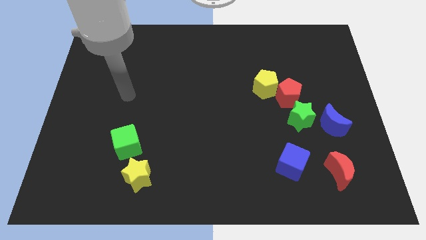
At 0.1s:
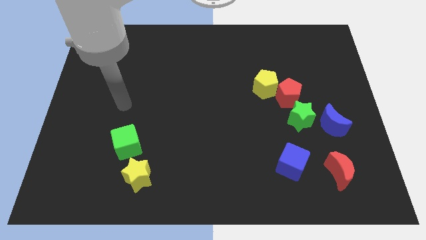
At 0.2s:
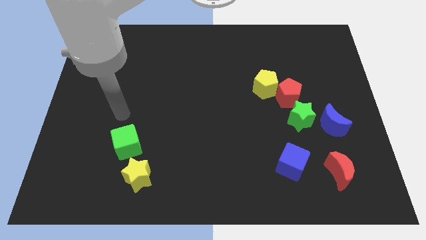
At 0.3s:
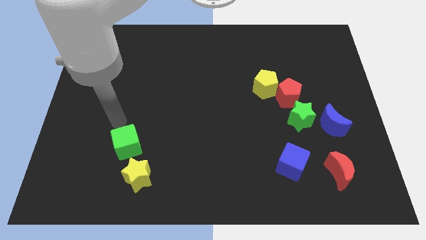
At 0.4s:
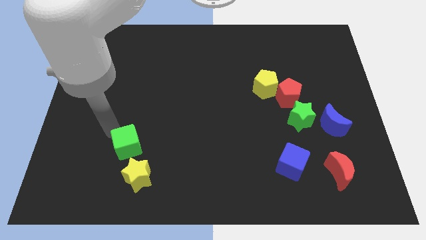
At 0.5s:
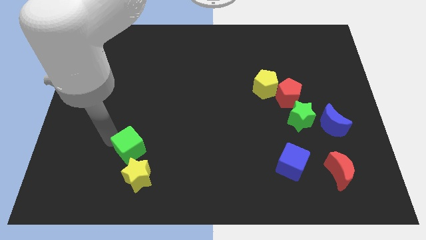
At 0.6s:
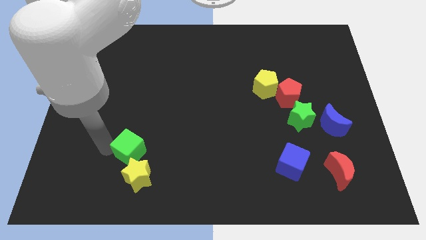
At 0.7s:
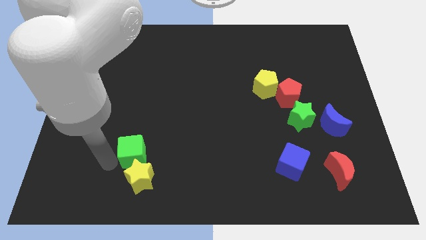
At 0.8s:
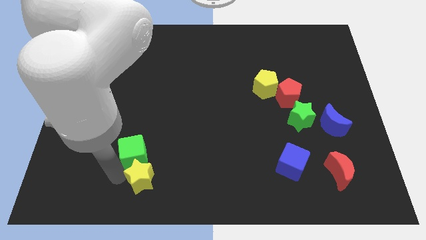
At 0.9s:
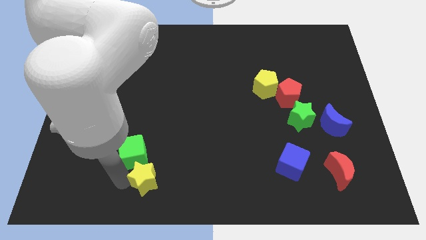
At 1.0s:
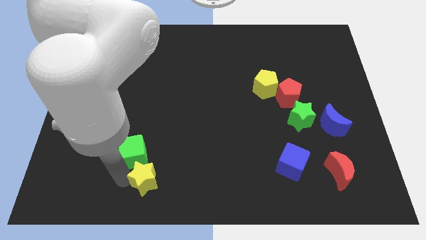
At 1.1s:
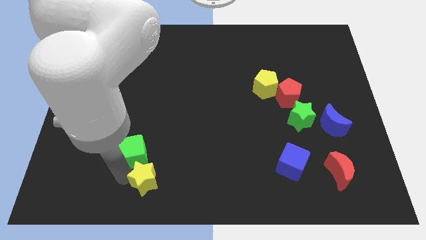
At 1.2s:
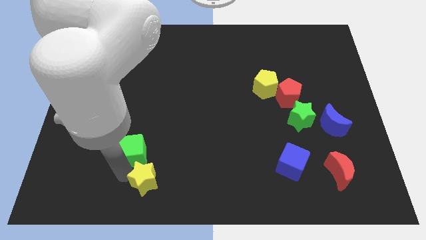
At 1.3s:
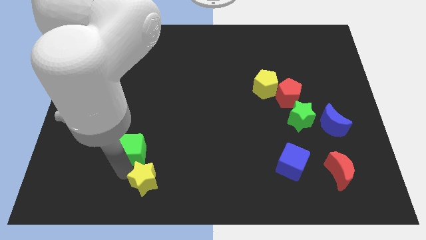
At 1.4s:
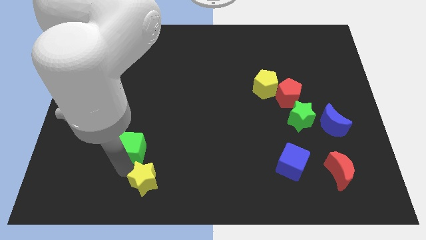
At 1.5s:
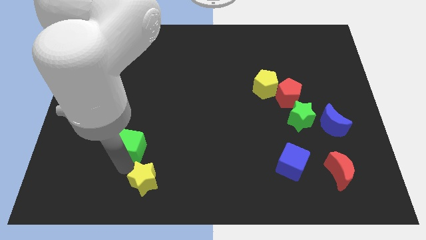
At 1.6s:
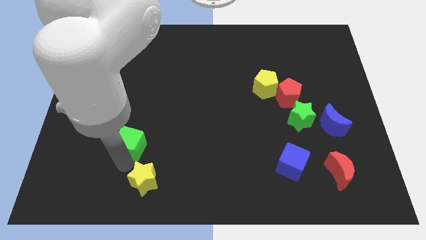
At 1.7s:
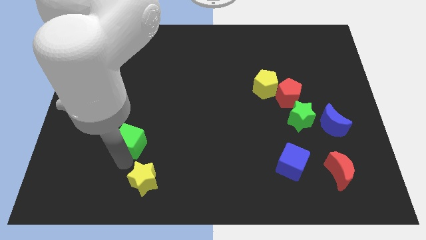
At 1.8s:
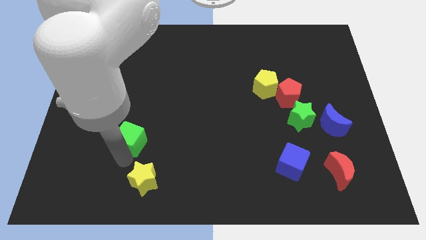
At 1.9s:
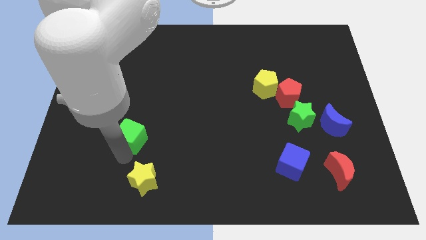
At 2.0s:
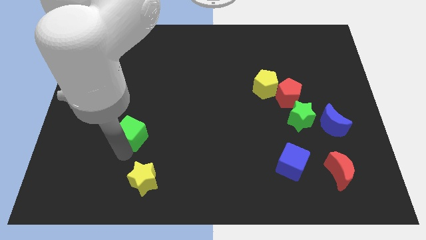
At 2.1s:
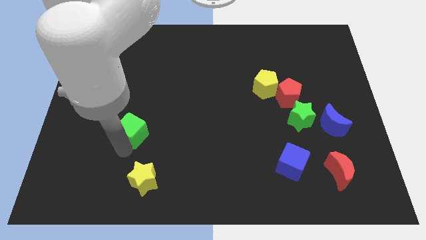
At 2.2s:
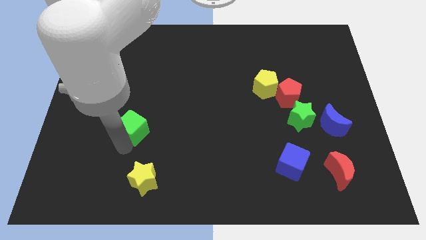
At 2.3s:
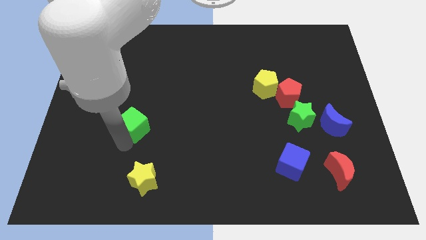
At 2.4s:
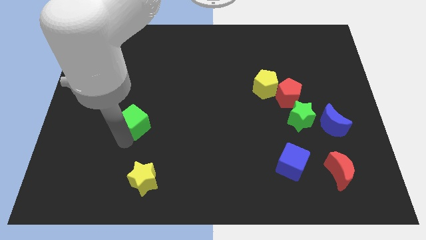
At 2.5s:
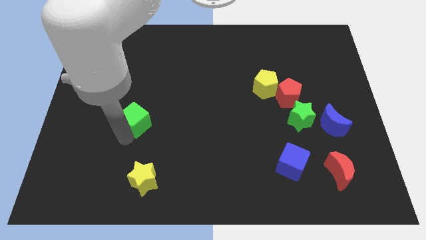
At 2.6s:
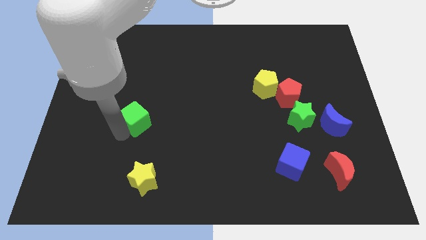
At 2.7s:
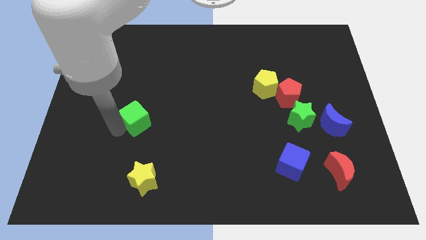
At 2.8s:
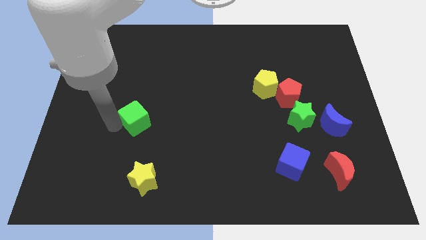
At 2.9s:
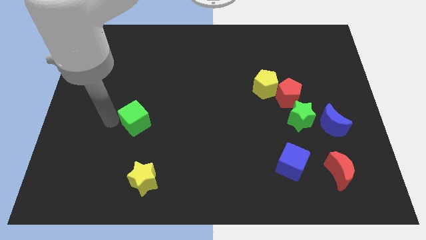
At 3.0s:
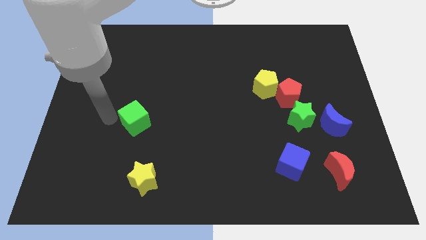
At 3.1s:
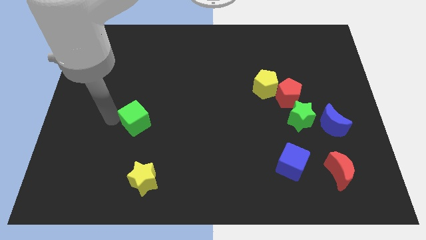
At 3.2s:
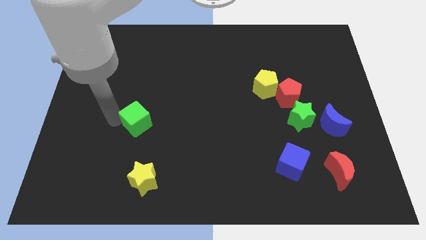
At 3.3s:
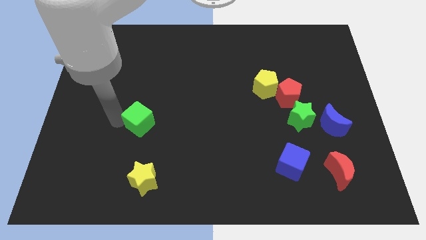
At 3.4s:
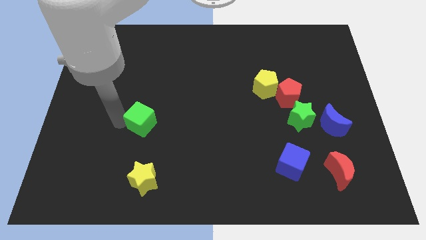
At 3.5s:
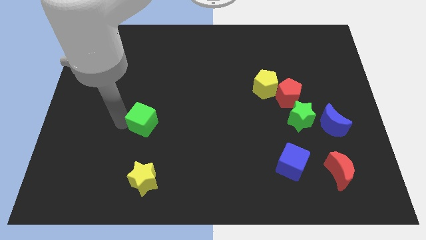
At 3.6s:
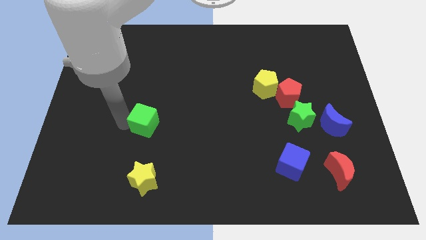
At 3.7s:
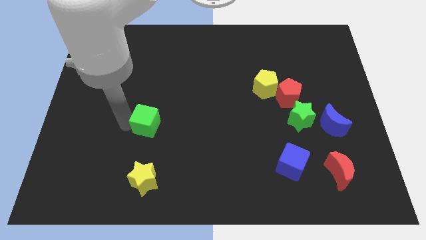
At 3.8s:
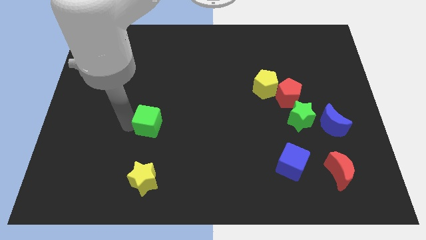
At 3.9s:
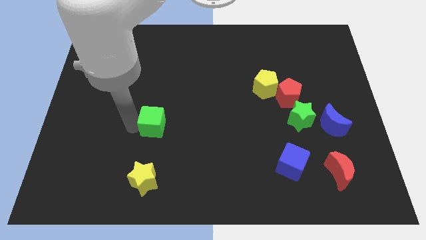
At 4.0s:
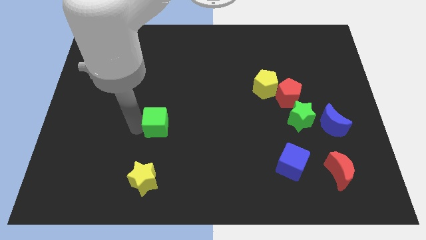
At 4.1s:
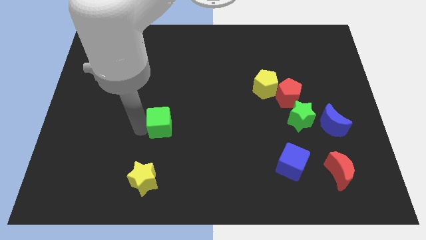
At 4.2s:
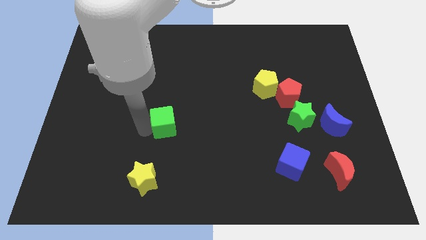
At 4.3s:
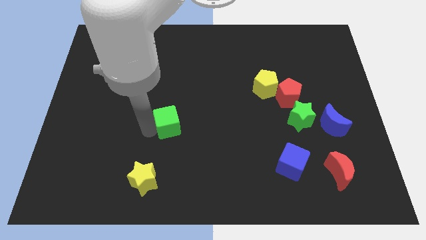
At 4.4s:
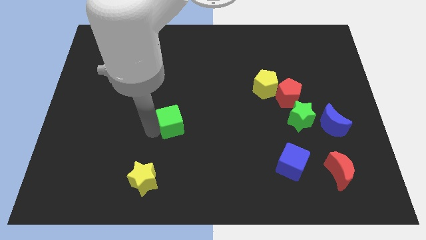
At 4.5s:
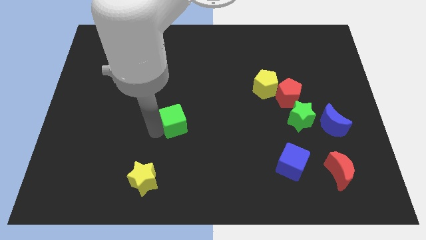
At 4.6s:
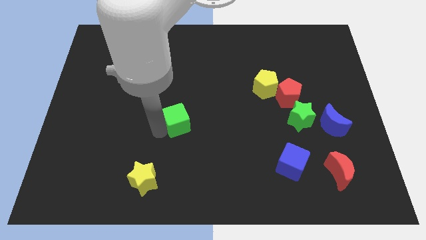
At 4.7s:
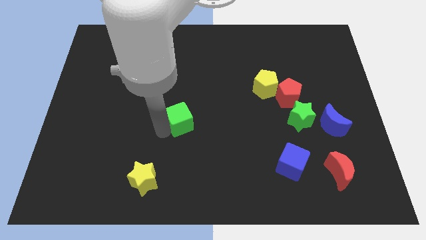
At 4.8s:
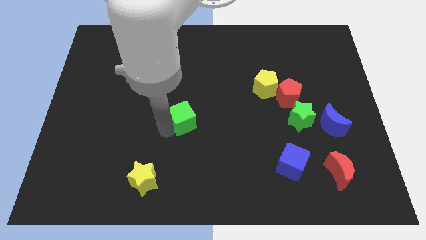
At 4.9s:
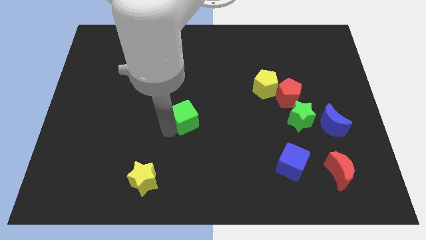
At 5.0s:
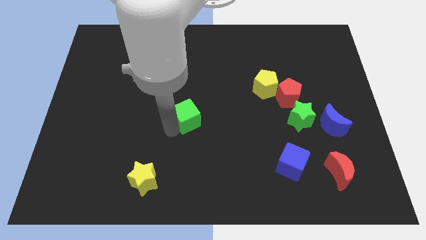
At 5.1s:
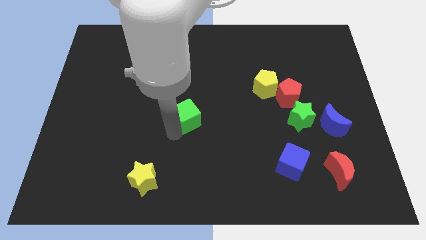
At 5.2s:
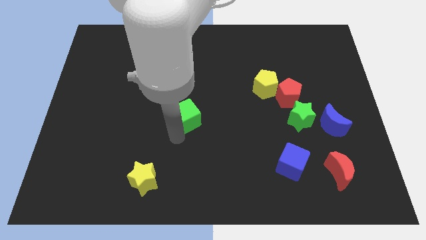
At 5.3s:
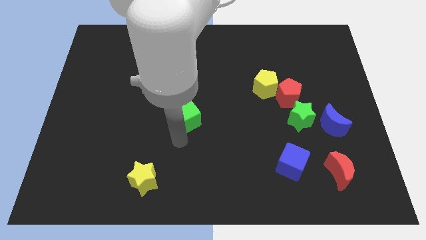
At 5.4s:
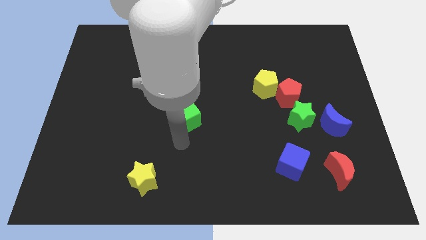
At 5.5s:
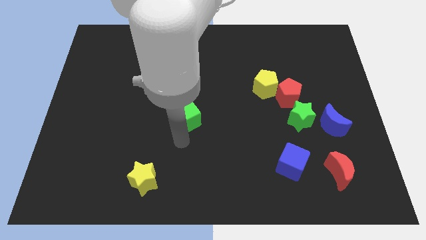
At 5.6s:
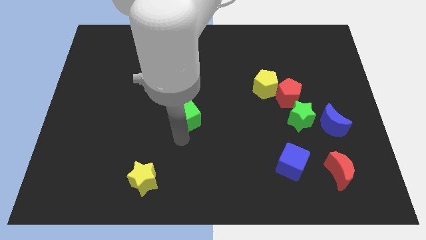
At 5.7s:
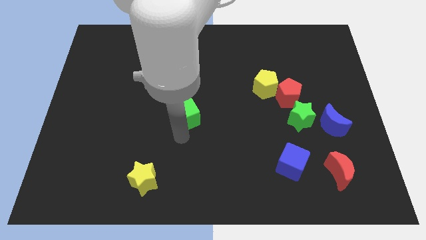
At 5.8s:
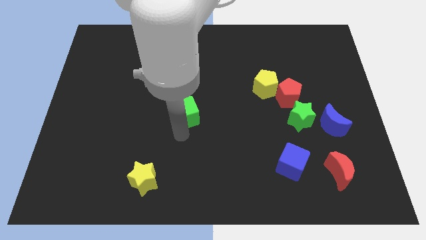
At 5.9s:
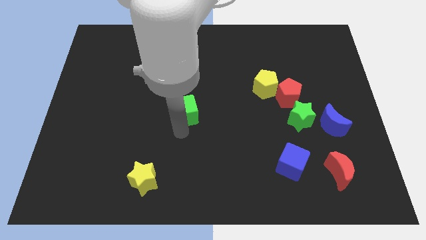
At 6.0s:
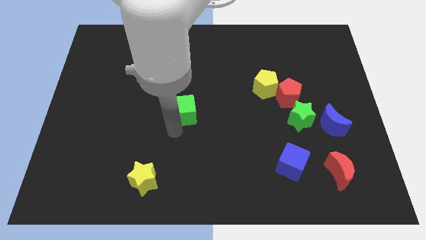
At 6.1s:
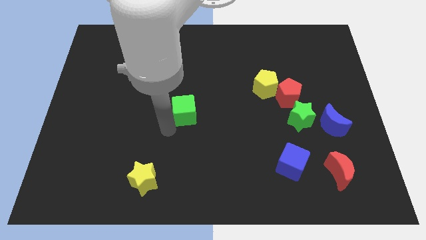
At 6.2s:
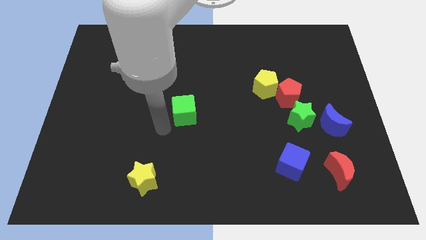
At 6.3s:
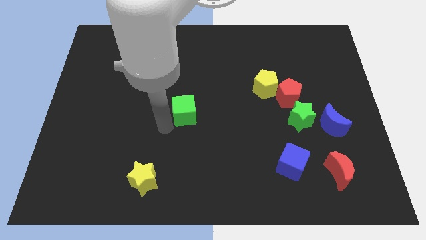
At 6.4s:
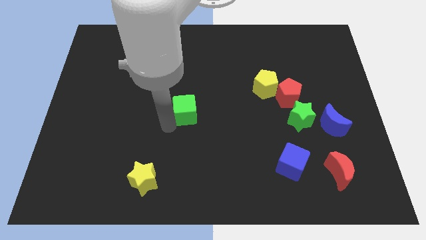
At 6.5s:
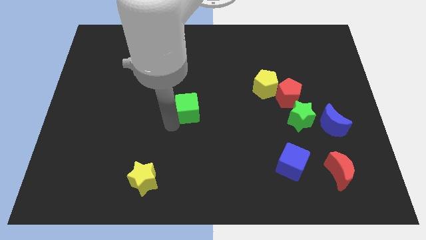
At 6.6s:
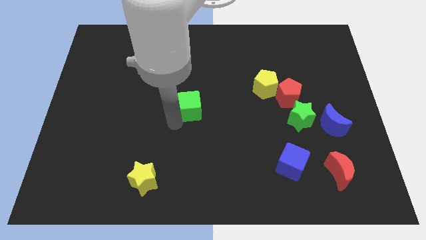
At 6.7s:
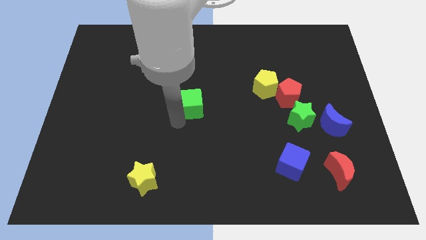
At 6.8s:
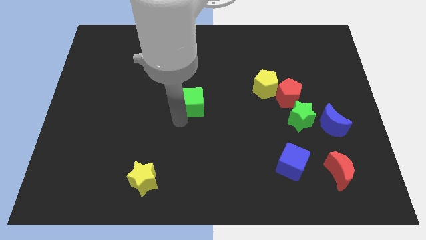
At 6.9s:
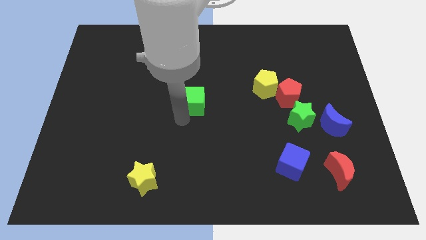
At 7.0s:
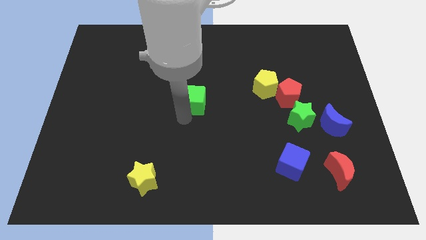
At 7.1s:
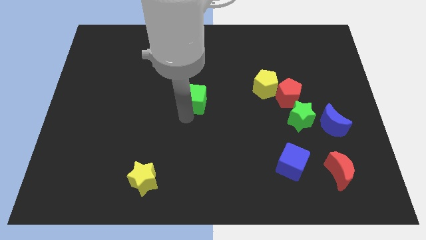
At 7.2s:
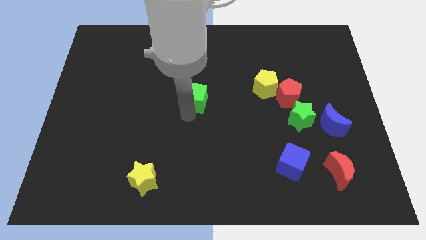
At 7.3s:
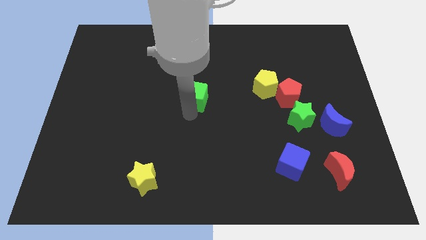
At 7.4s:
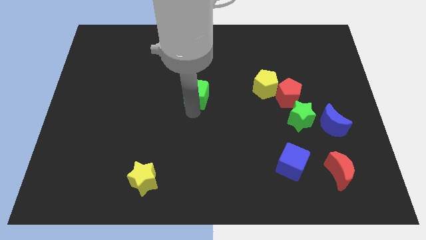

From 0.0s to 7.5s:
move the green cube upwards and to the right

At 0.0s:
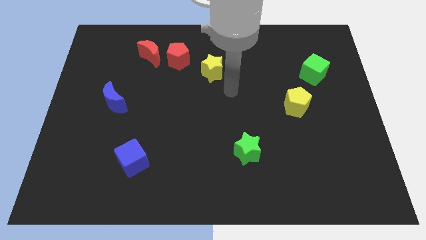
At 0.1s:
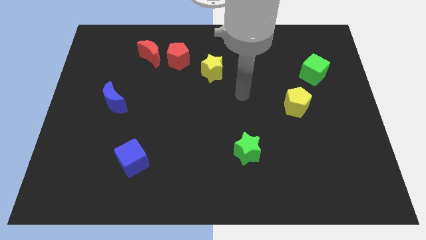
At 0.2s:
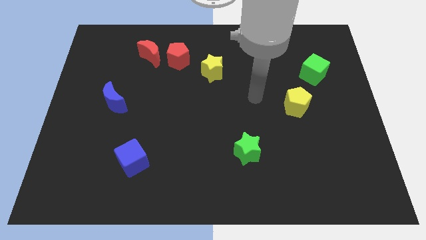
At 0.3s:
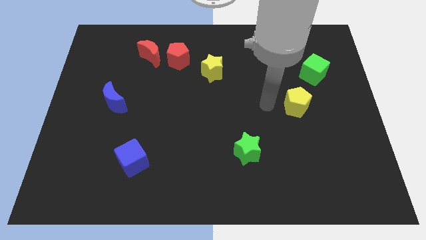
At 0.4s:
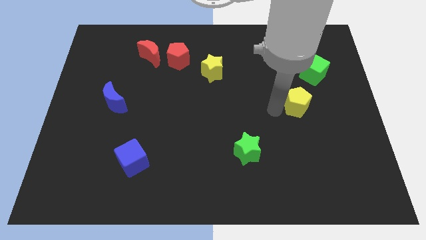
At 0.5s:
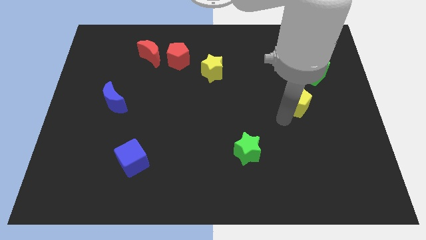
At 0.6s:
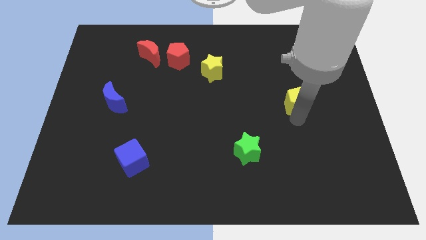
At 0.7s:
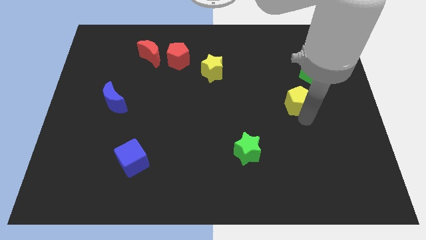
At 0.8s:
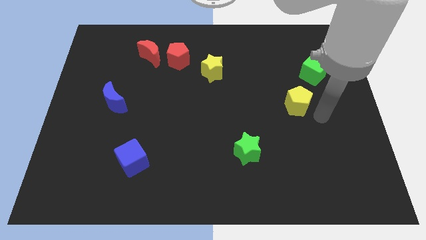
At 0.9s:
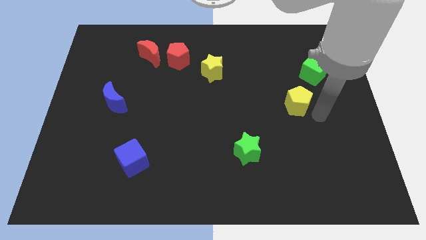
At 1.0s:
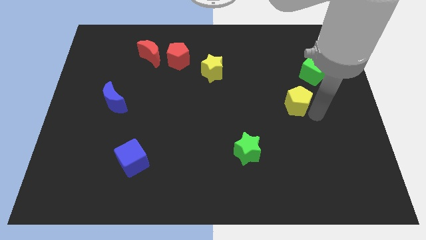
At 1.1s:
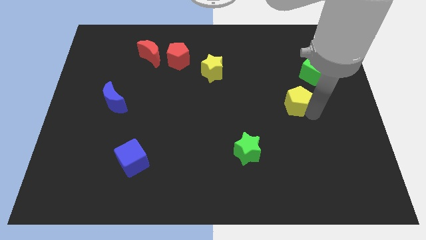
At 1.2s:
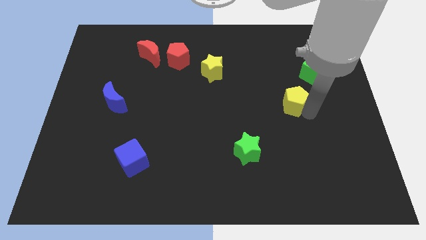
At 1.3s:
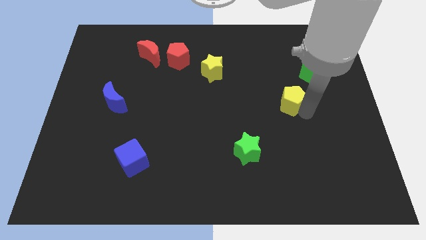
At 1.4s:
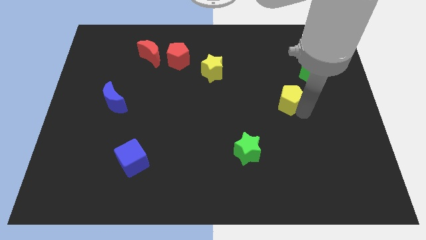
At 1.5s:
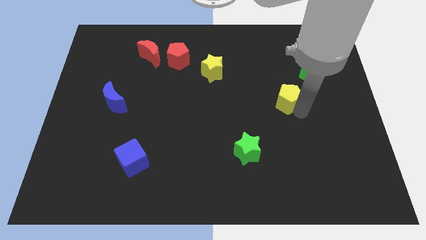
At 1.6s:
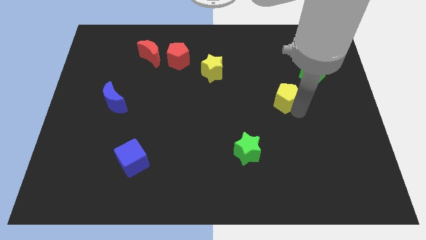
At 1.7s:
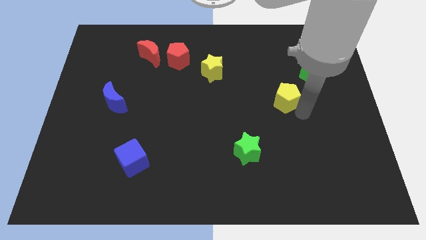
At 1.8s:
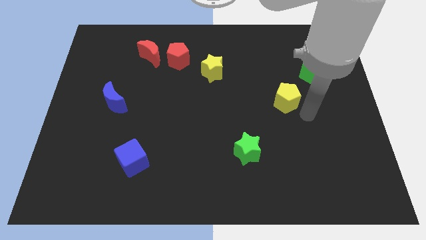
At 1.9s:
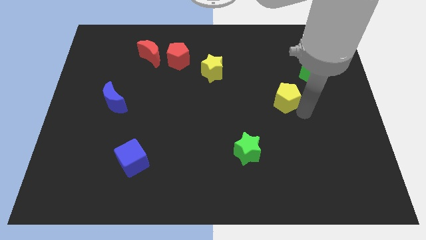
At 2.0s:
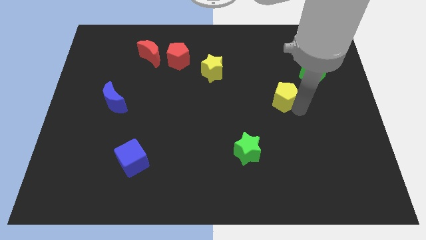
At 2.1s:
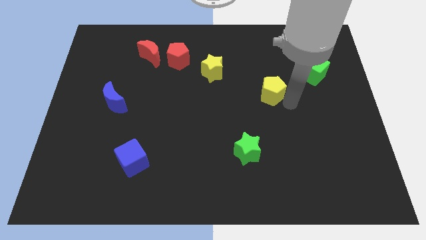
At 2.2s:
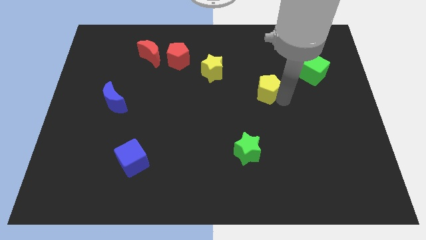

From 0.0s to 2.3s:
slide the yellow pentagon upwards and to the left a little
